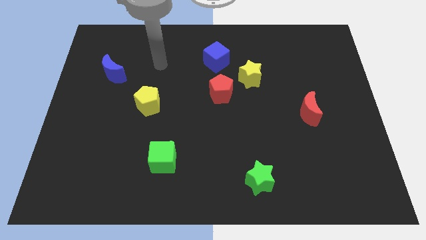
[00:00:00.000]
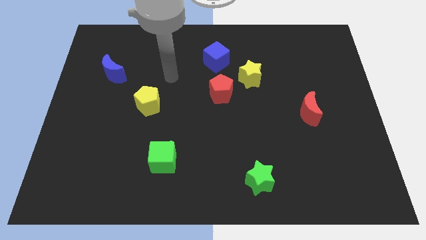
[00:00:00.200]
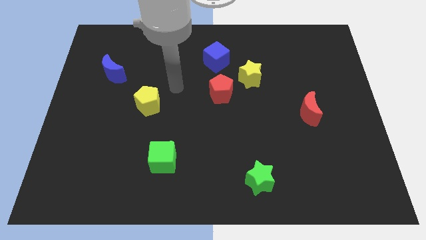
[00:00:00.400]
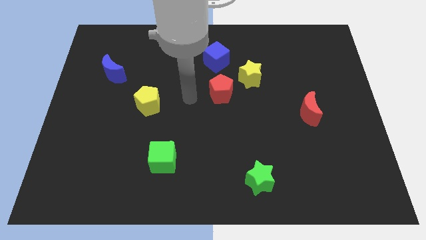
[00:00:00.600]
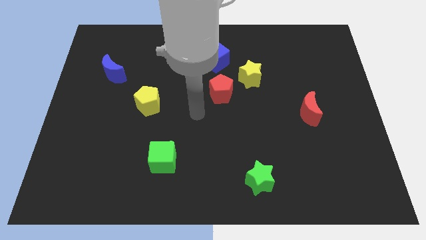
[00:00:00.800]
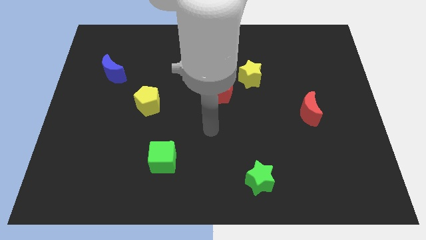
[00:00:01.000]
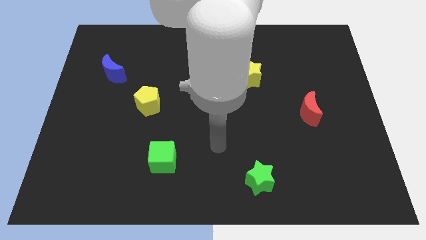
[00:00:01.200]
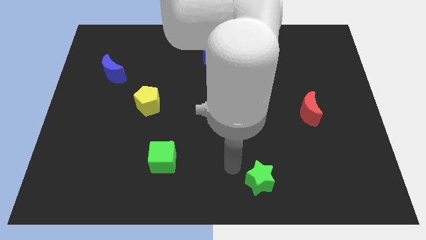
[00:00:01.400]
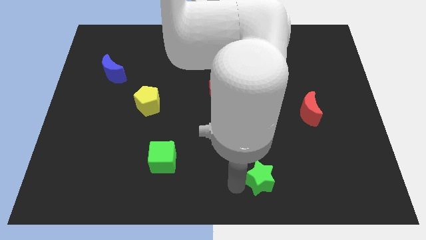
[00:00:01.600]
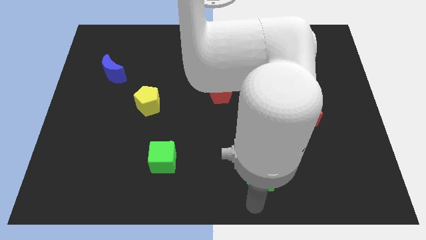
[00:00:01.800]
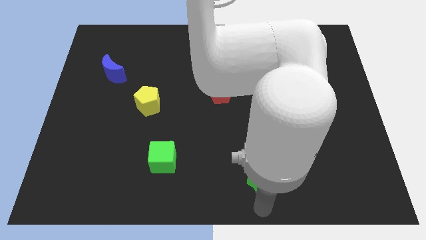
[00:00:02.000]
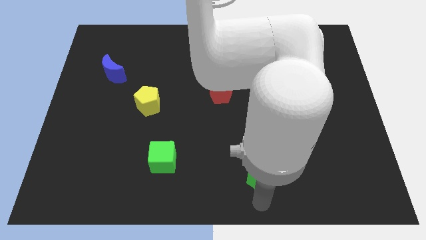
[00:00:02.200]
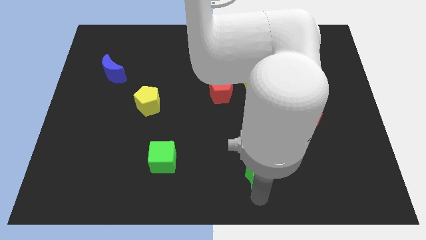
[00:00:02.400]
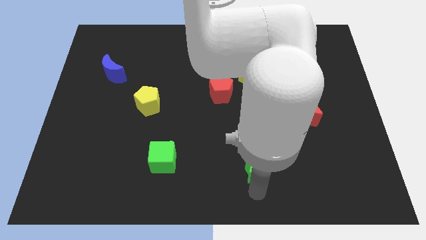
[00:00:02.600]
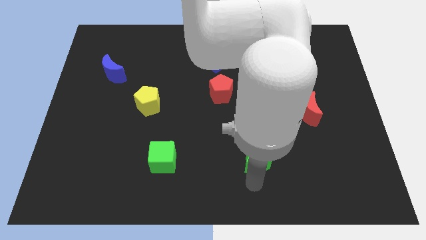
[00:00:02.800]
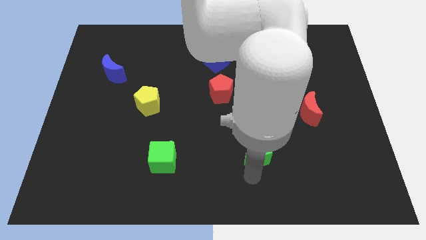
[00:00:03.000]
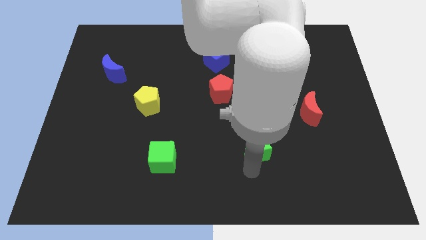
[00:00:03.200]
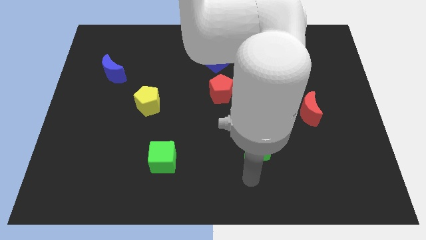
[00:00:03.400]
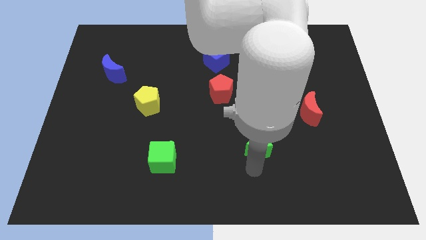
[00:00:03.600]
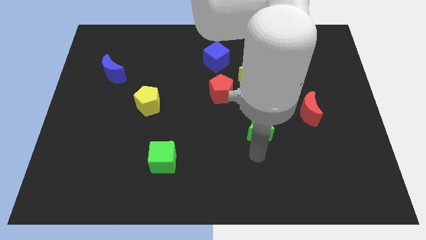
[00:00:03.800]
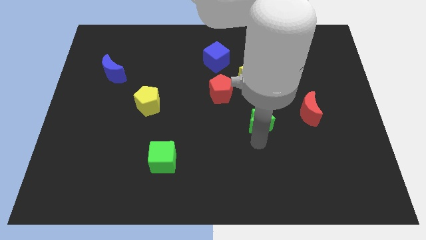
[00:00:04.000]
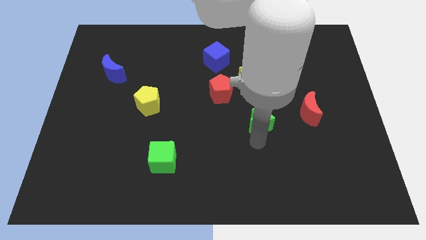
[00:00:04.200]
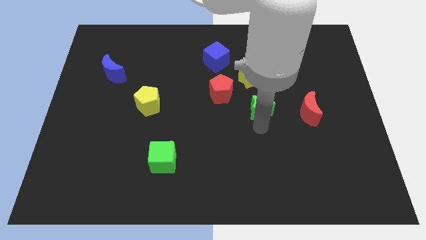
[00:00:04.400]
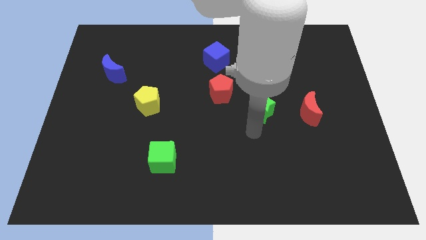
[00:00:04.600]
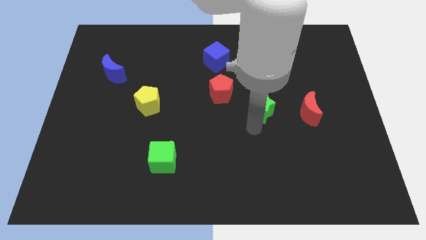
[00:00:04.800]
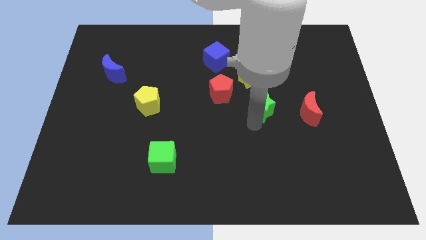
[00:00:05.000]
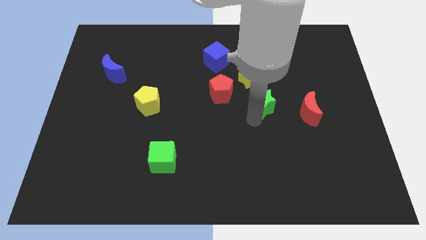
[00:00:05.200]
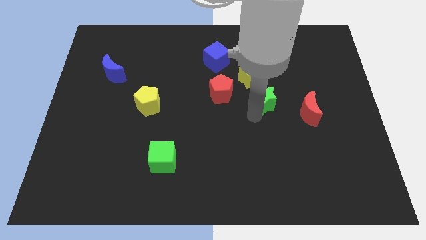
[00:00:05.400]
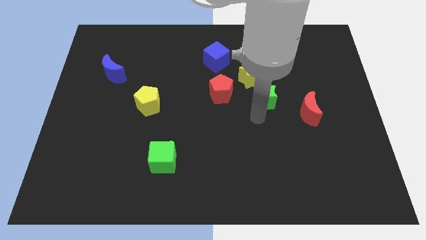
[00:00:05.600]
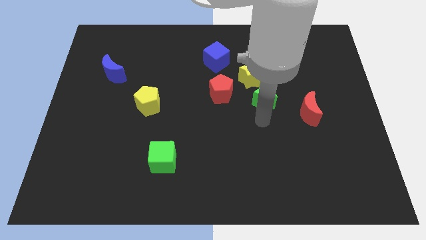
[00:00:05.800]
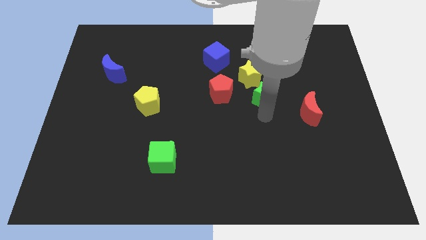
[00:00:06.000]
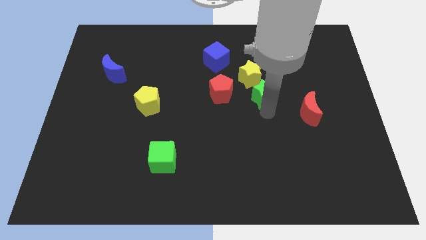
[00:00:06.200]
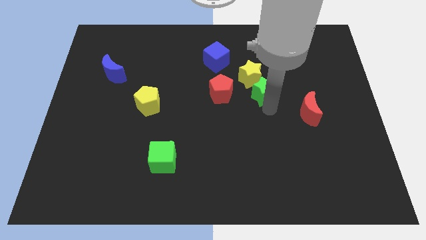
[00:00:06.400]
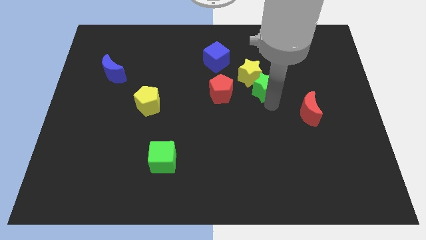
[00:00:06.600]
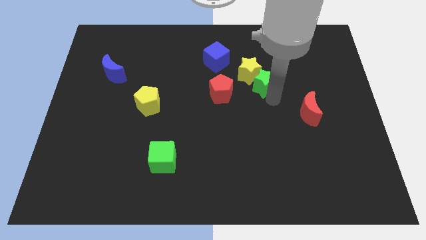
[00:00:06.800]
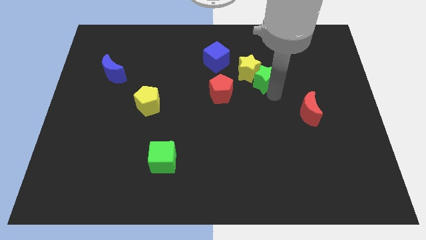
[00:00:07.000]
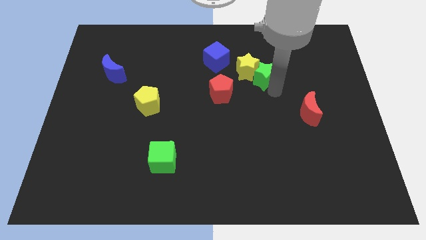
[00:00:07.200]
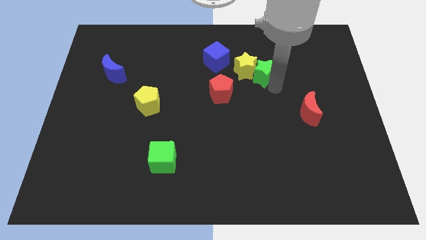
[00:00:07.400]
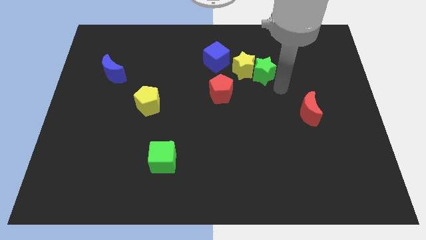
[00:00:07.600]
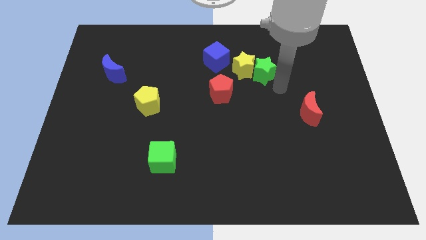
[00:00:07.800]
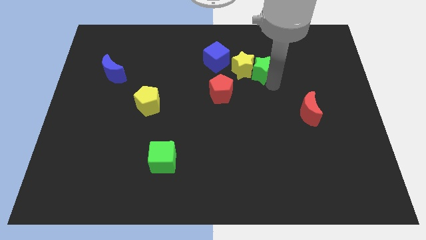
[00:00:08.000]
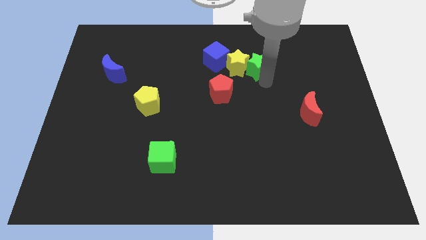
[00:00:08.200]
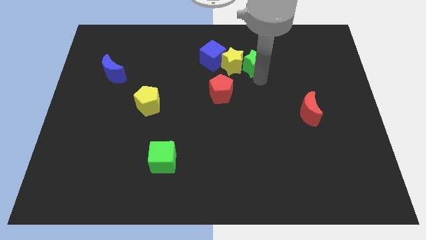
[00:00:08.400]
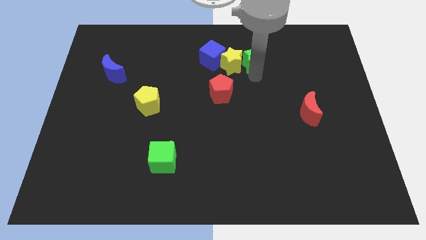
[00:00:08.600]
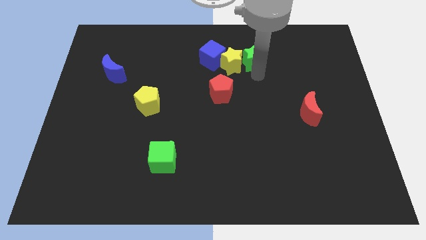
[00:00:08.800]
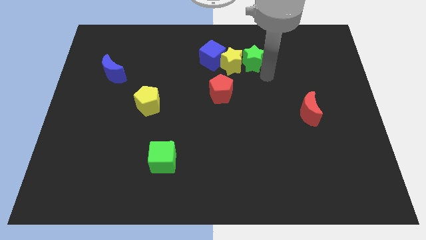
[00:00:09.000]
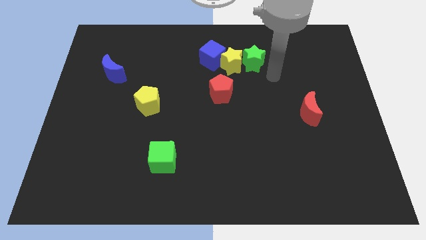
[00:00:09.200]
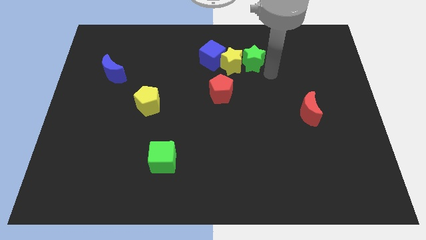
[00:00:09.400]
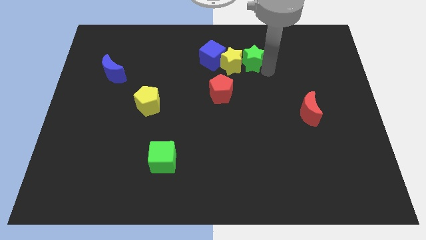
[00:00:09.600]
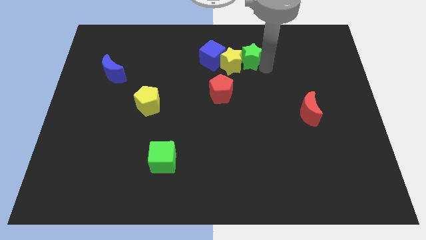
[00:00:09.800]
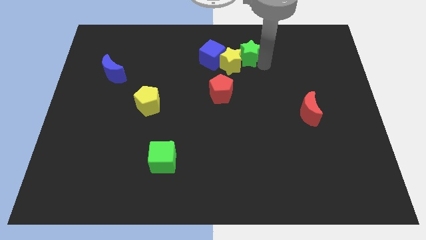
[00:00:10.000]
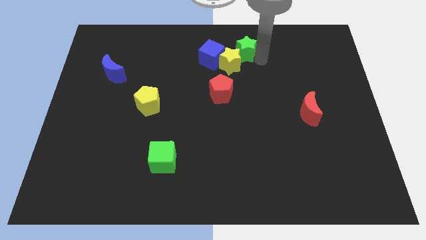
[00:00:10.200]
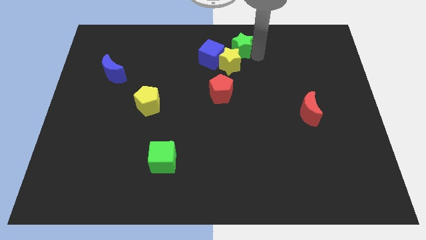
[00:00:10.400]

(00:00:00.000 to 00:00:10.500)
push the green star to the towards your base

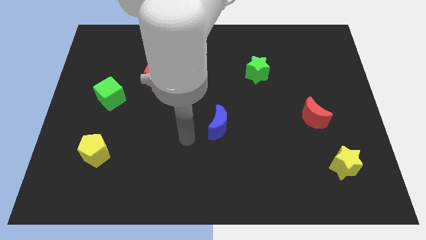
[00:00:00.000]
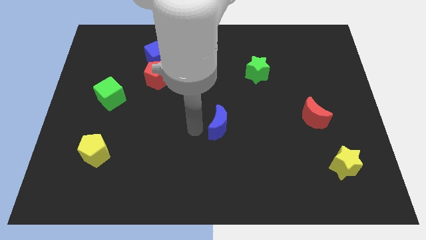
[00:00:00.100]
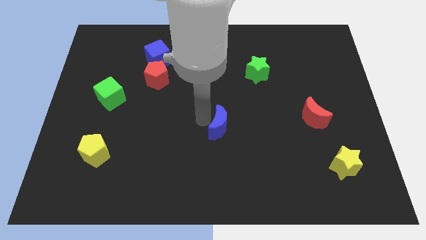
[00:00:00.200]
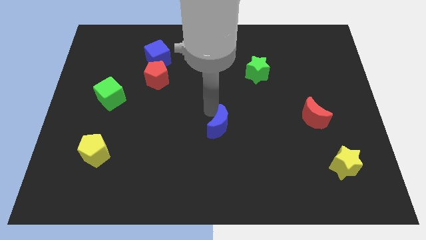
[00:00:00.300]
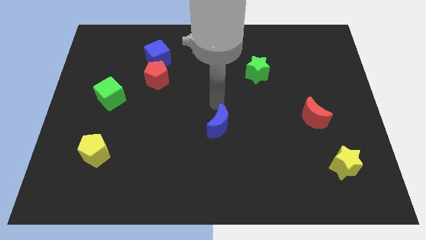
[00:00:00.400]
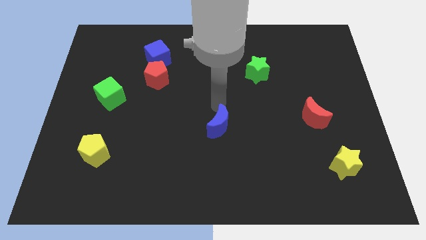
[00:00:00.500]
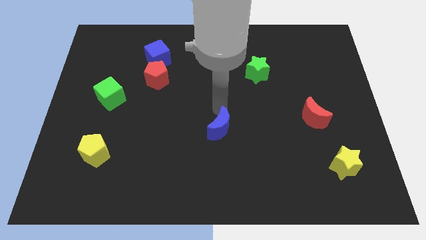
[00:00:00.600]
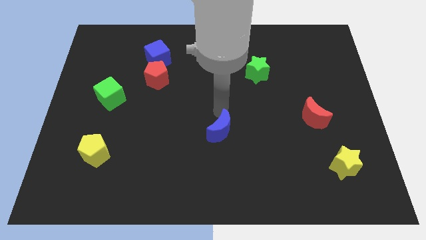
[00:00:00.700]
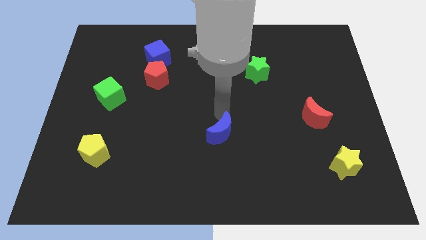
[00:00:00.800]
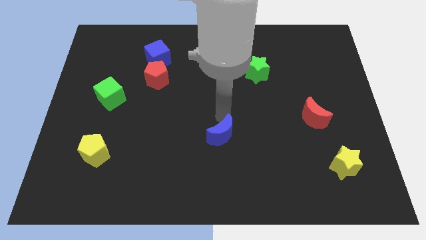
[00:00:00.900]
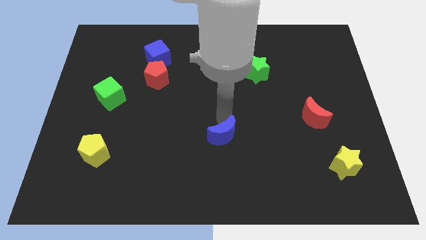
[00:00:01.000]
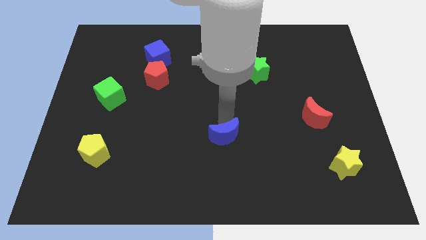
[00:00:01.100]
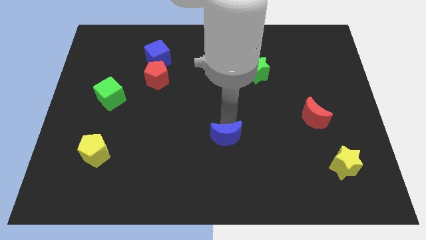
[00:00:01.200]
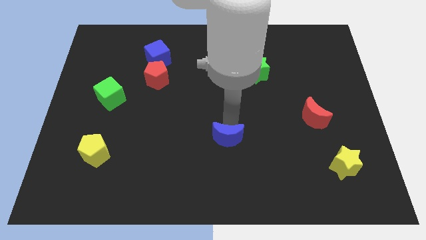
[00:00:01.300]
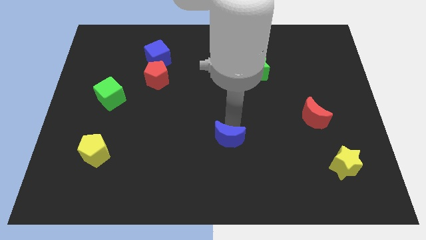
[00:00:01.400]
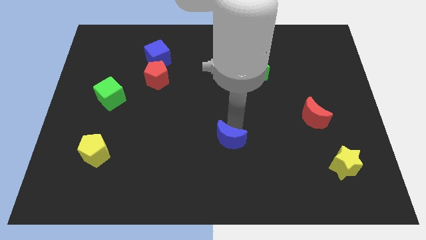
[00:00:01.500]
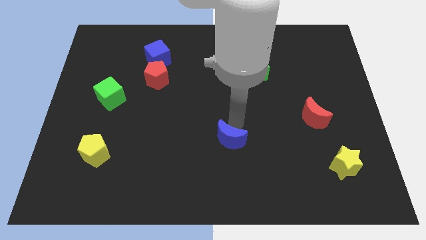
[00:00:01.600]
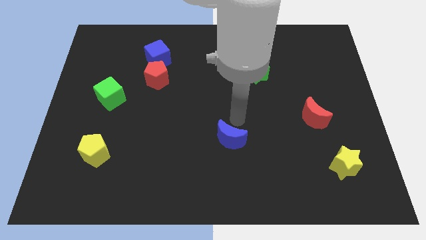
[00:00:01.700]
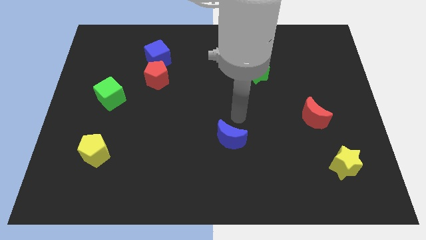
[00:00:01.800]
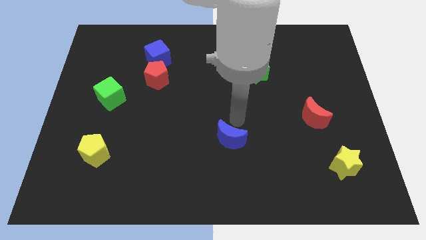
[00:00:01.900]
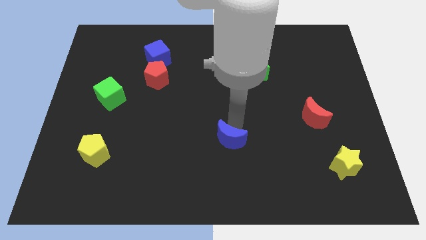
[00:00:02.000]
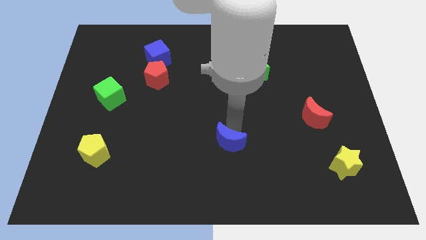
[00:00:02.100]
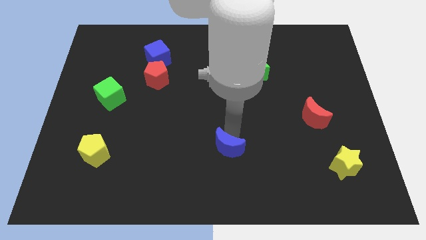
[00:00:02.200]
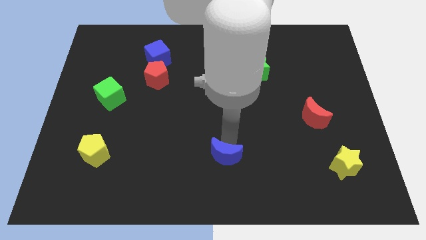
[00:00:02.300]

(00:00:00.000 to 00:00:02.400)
put the blue moon to the bottom side
